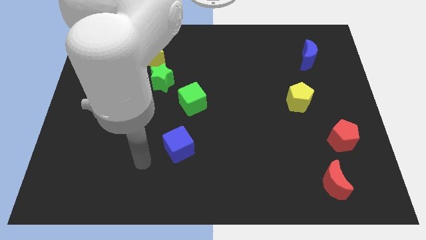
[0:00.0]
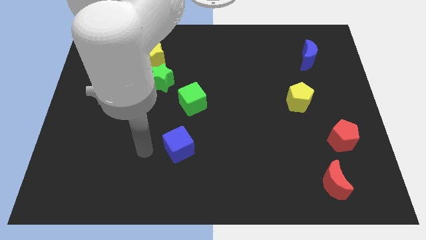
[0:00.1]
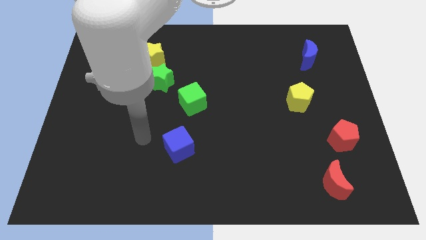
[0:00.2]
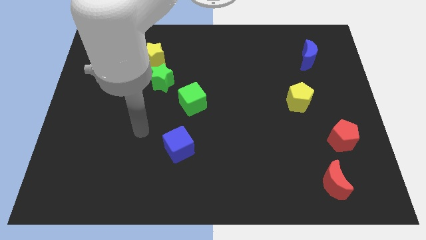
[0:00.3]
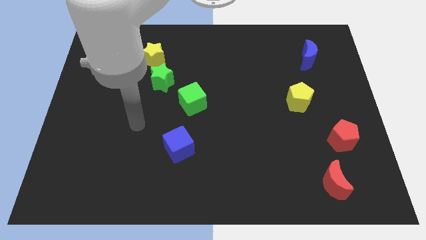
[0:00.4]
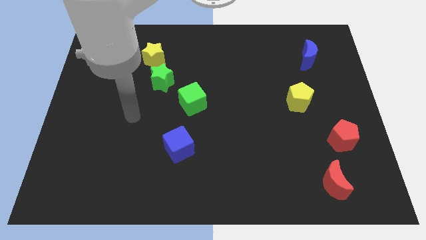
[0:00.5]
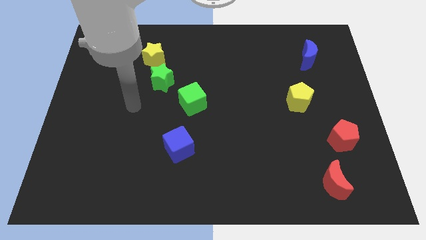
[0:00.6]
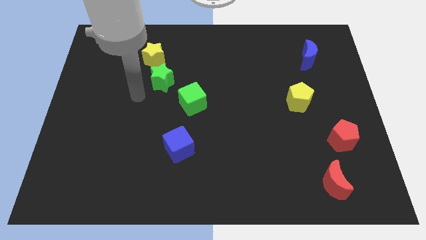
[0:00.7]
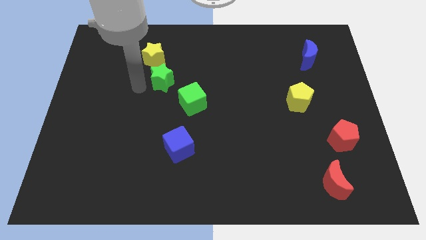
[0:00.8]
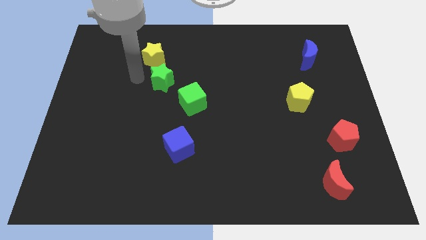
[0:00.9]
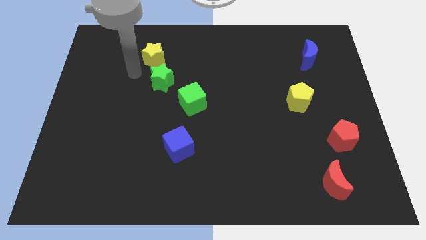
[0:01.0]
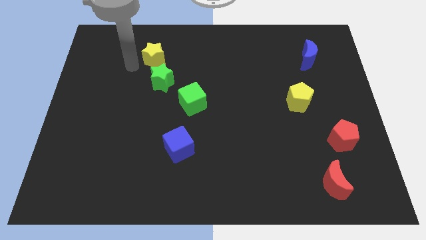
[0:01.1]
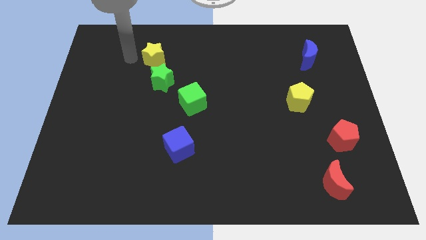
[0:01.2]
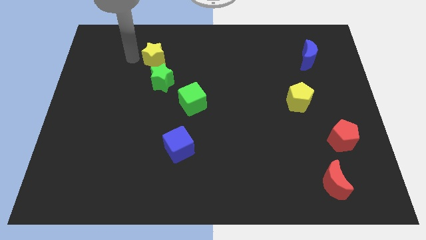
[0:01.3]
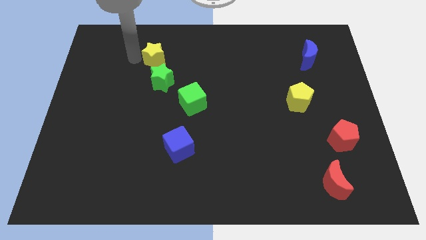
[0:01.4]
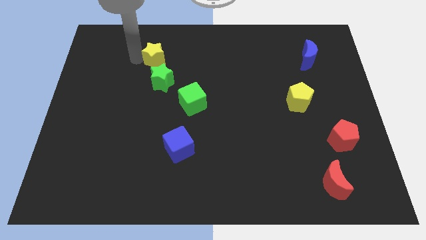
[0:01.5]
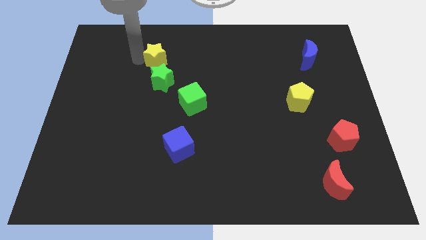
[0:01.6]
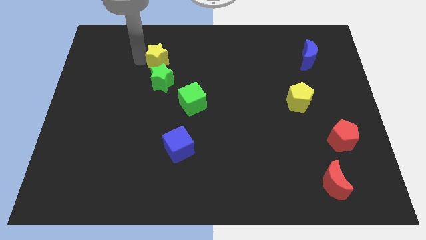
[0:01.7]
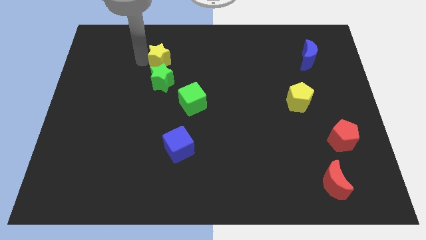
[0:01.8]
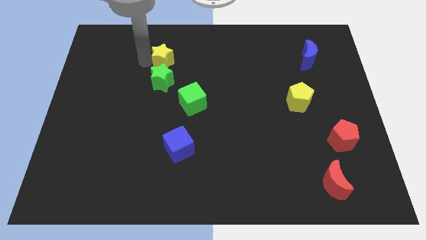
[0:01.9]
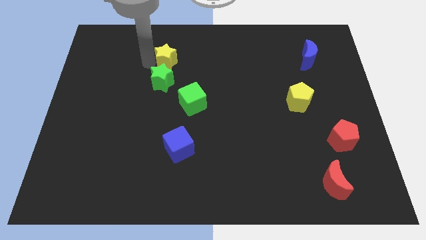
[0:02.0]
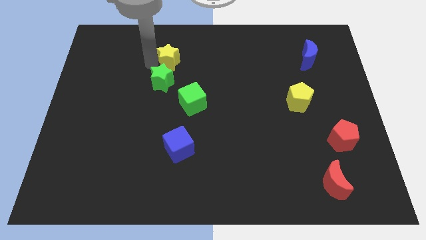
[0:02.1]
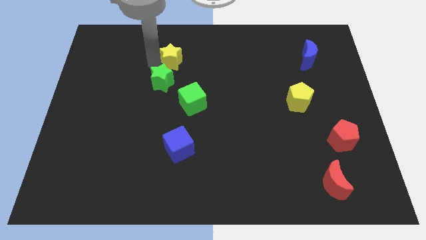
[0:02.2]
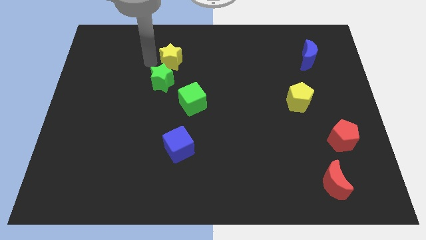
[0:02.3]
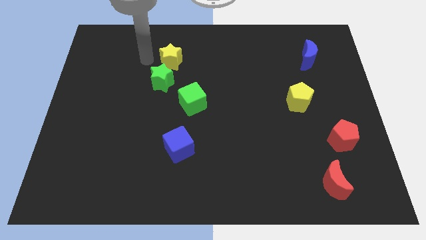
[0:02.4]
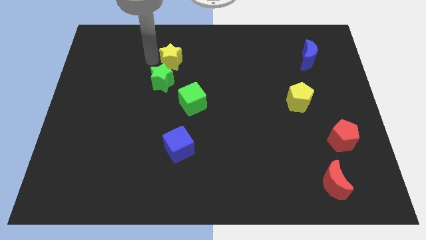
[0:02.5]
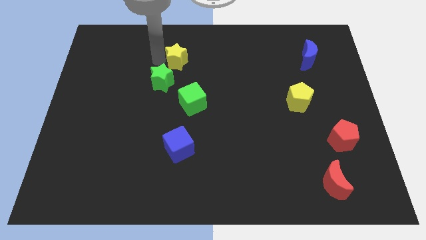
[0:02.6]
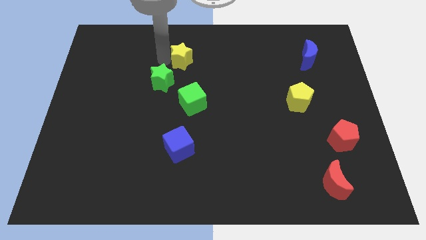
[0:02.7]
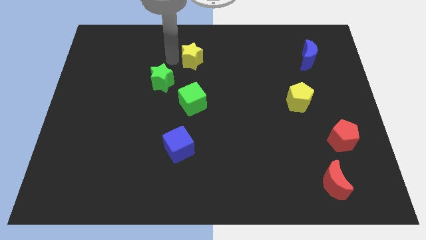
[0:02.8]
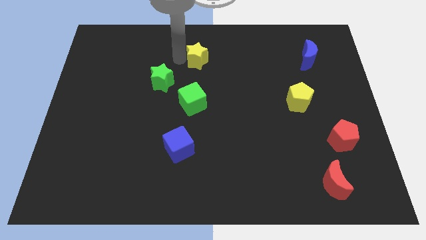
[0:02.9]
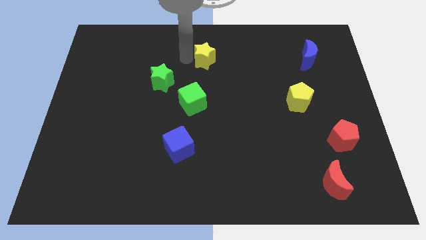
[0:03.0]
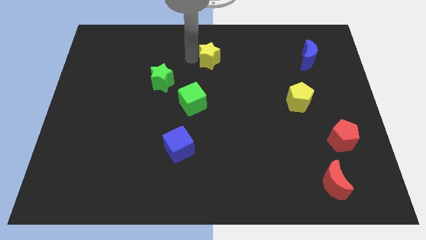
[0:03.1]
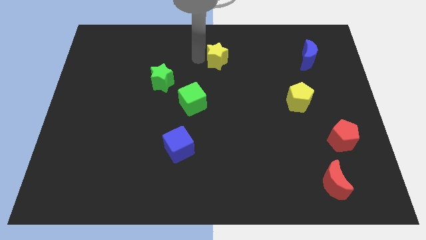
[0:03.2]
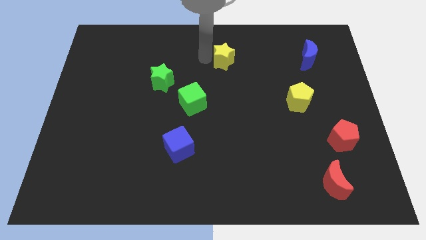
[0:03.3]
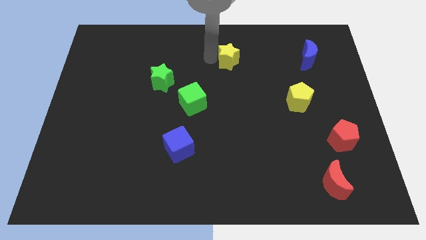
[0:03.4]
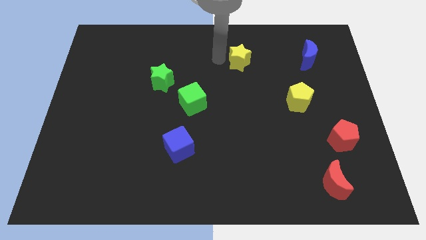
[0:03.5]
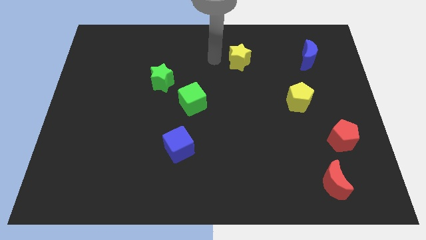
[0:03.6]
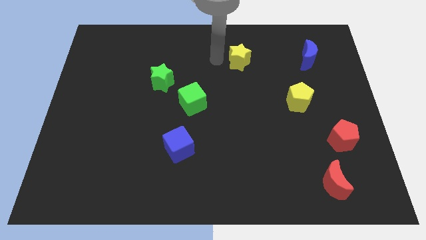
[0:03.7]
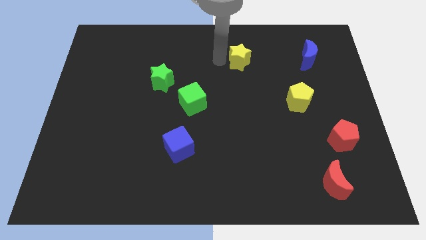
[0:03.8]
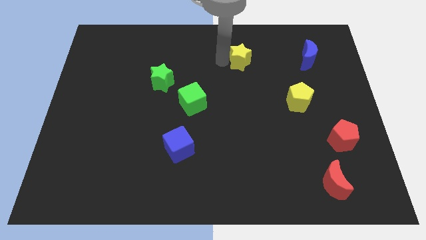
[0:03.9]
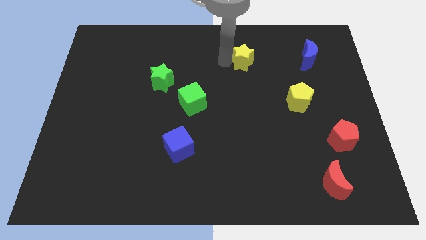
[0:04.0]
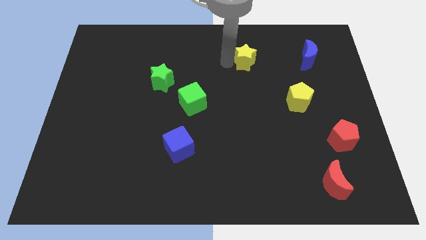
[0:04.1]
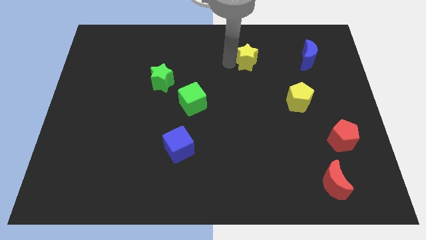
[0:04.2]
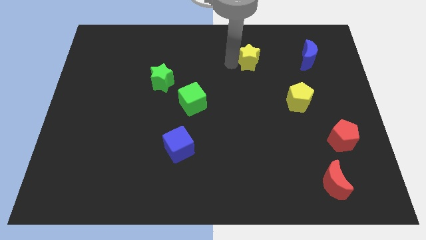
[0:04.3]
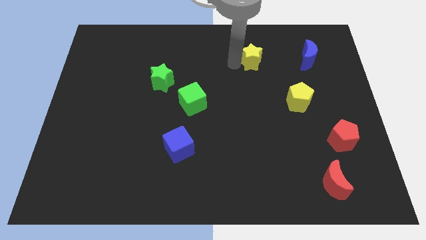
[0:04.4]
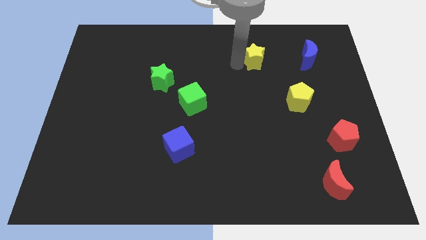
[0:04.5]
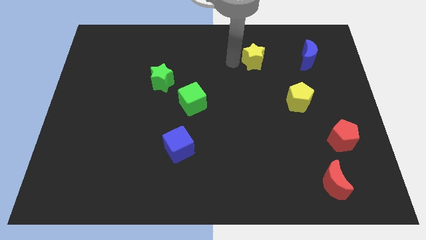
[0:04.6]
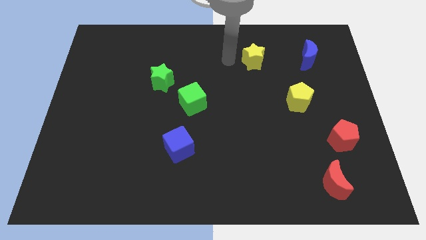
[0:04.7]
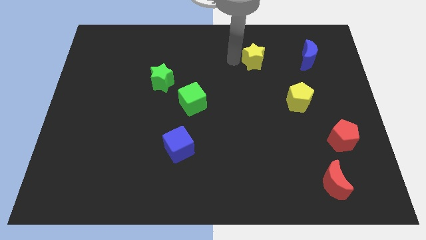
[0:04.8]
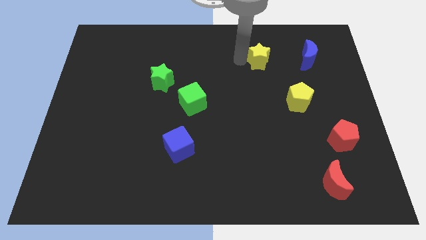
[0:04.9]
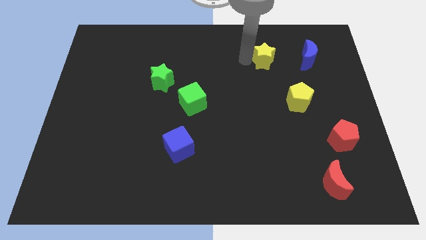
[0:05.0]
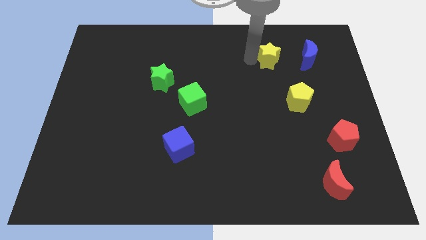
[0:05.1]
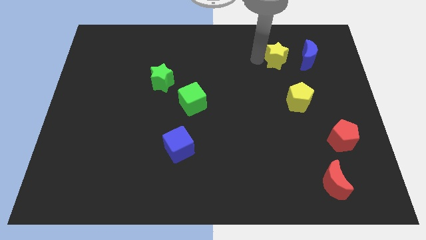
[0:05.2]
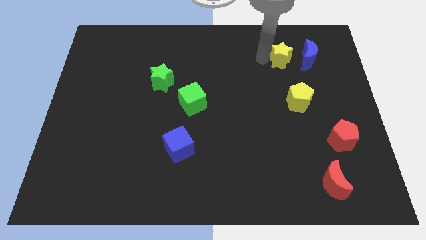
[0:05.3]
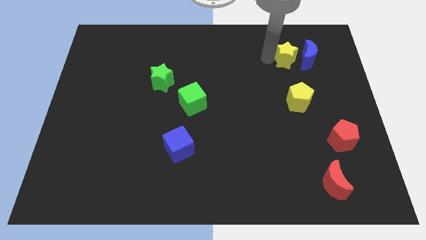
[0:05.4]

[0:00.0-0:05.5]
put the yellow star towards the blue moon

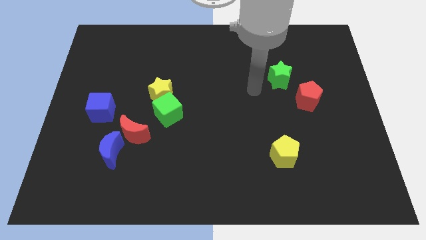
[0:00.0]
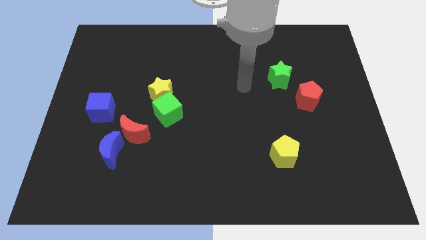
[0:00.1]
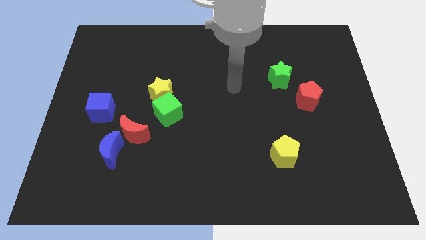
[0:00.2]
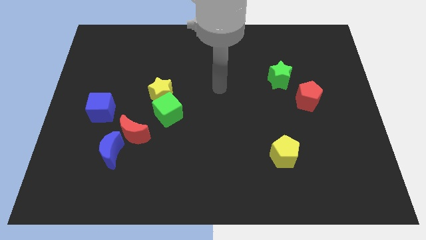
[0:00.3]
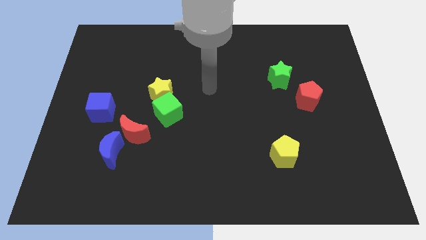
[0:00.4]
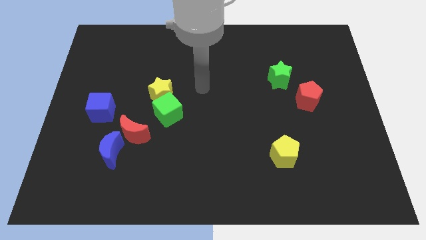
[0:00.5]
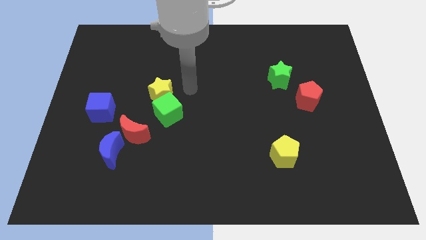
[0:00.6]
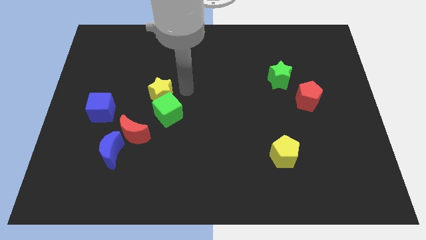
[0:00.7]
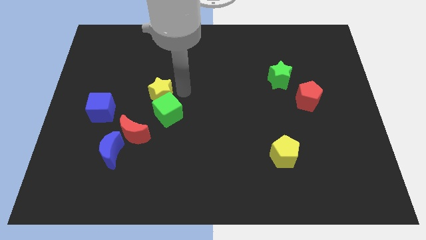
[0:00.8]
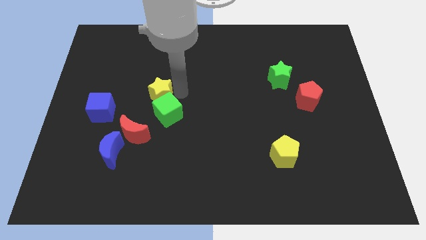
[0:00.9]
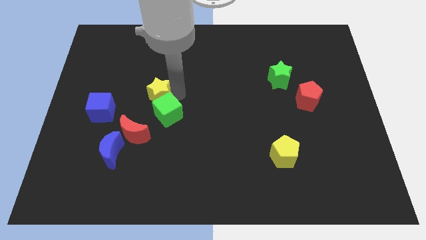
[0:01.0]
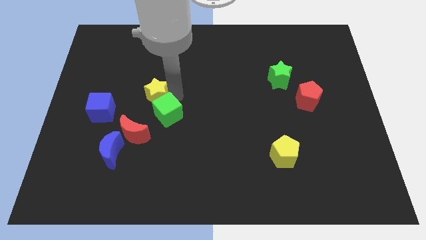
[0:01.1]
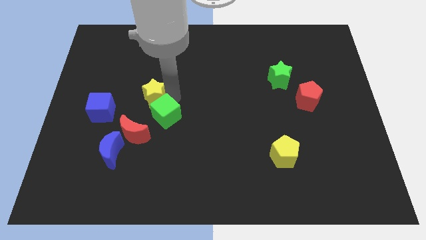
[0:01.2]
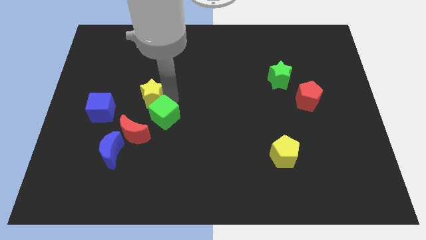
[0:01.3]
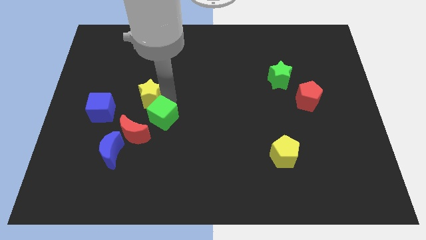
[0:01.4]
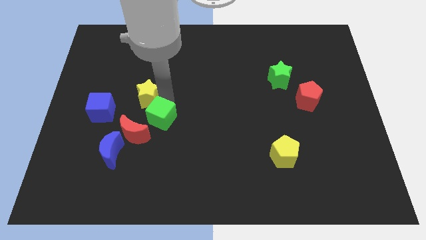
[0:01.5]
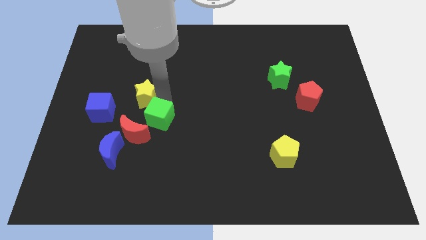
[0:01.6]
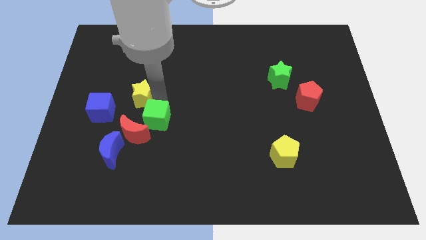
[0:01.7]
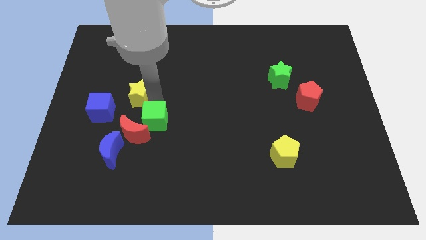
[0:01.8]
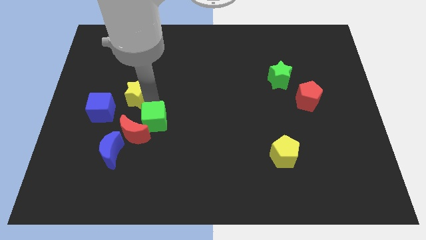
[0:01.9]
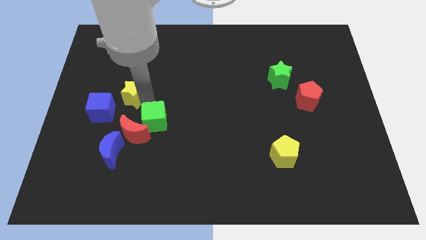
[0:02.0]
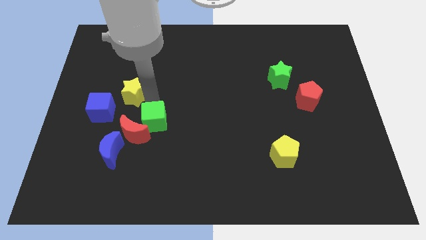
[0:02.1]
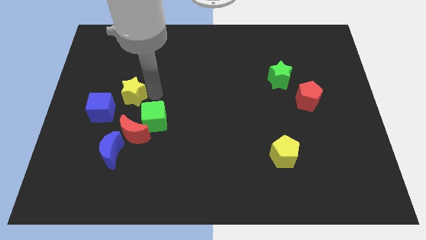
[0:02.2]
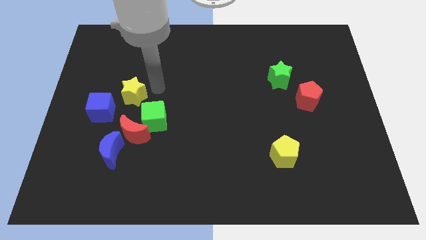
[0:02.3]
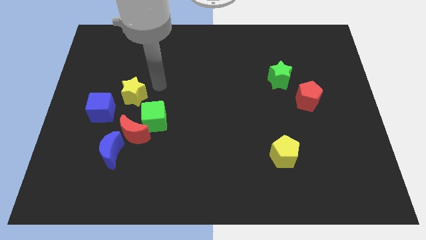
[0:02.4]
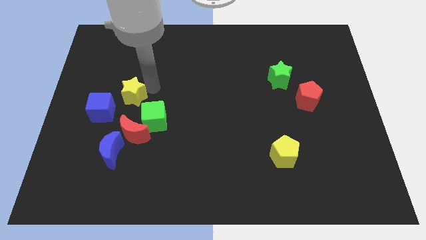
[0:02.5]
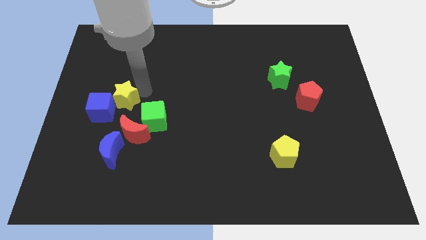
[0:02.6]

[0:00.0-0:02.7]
push the yellow star close to the blue cube
